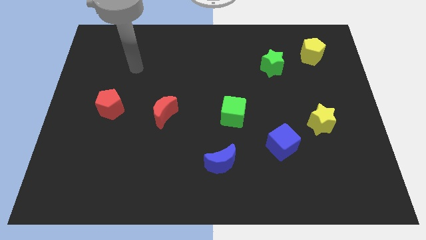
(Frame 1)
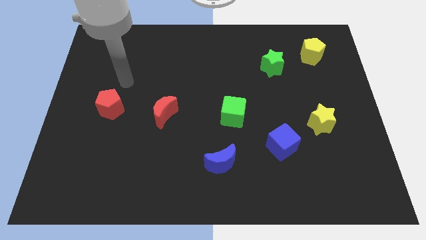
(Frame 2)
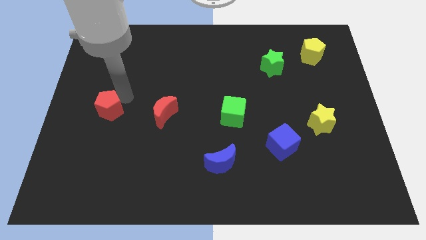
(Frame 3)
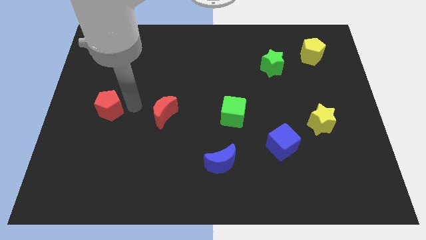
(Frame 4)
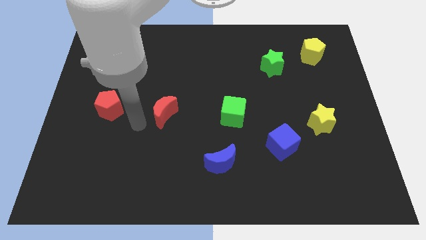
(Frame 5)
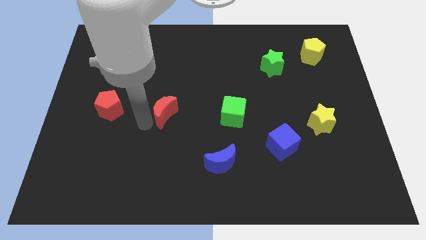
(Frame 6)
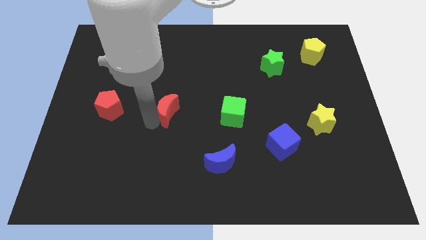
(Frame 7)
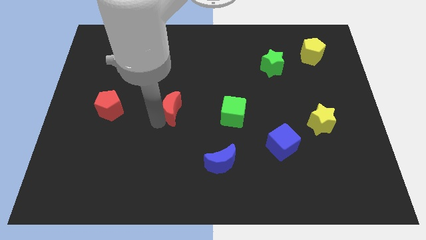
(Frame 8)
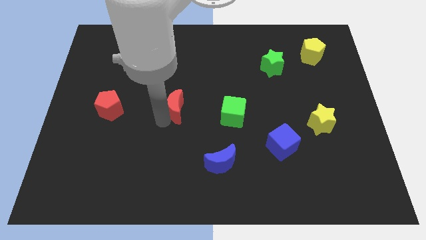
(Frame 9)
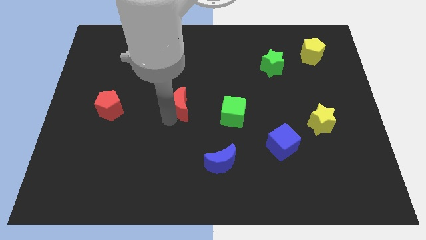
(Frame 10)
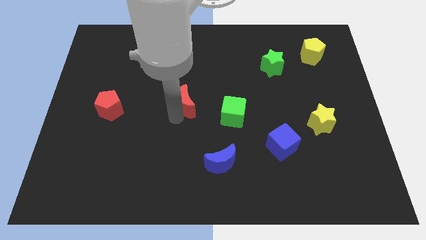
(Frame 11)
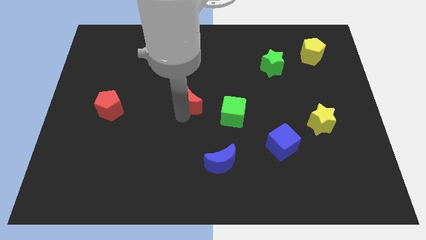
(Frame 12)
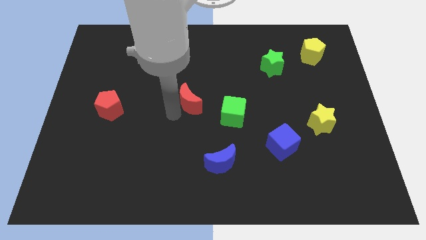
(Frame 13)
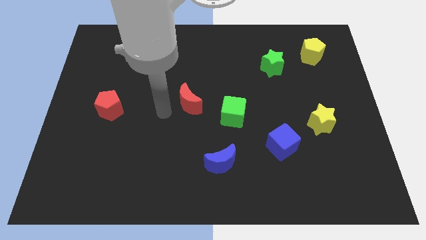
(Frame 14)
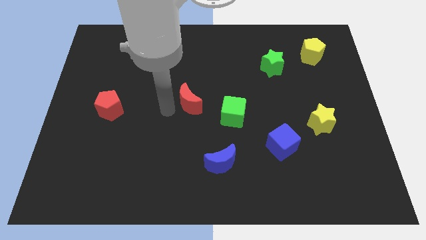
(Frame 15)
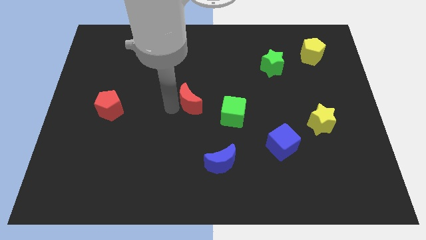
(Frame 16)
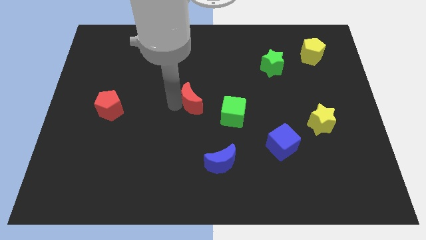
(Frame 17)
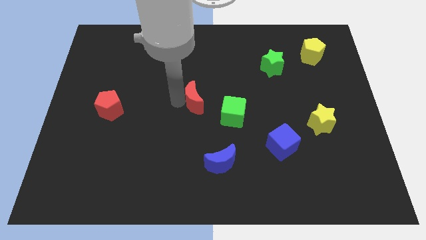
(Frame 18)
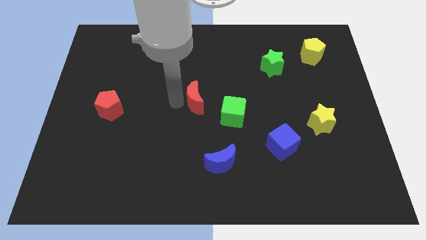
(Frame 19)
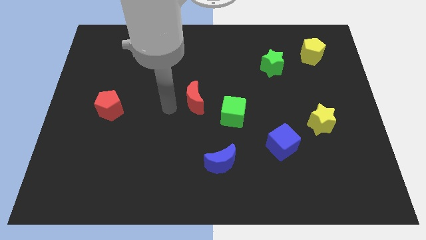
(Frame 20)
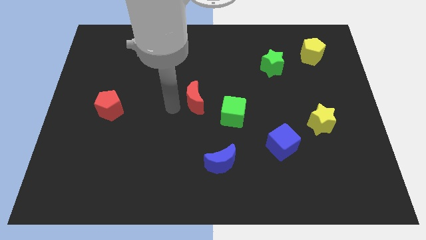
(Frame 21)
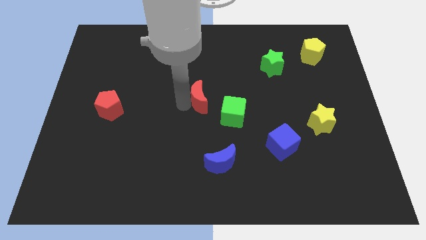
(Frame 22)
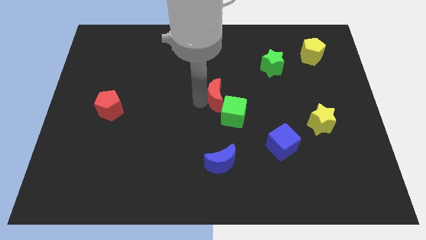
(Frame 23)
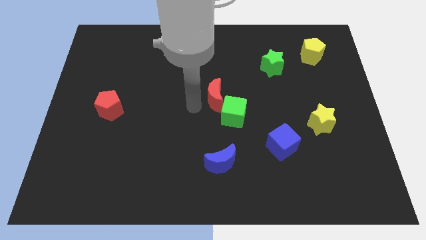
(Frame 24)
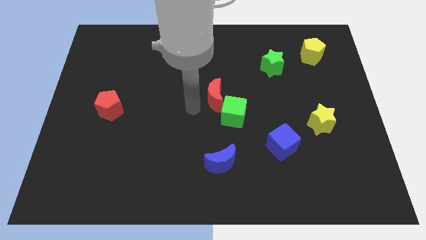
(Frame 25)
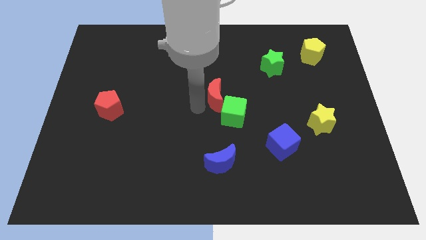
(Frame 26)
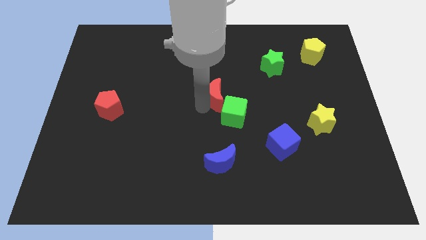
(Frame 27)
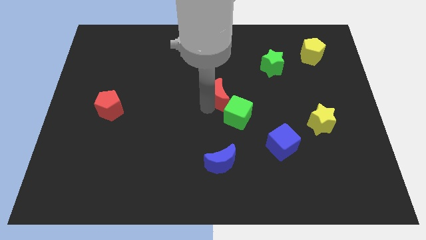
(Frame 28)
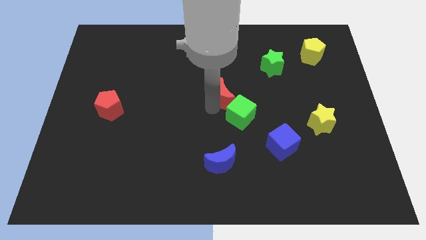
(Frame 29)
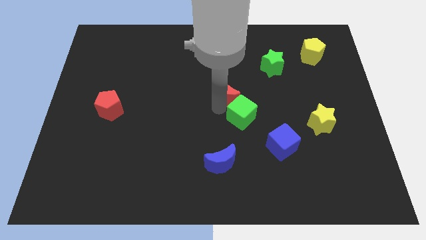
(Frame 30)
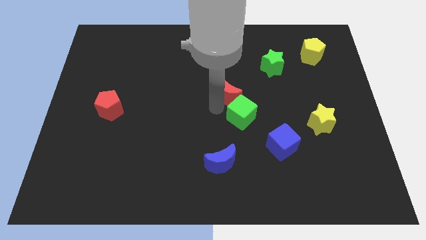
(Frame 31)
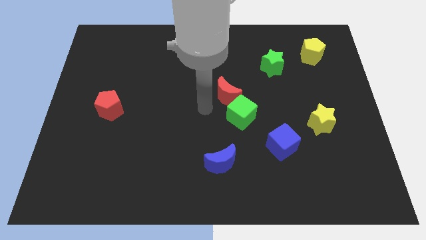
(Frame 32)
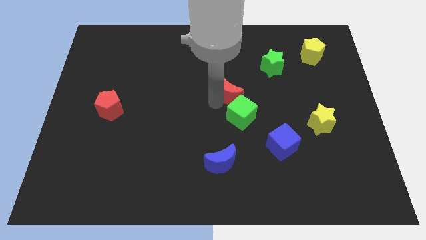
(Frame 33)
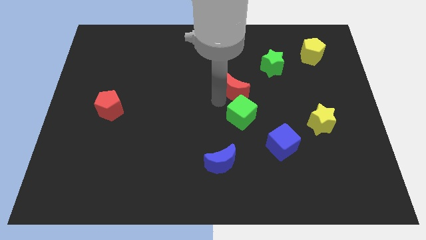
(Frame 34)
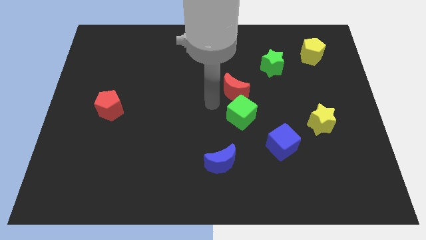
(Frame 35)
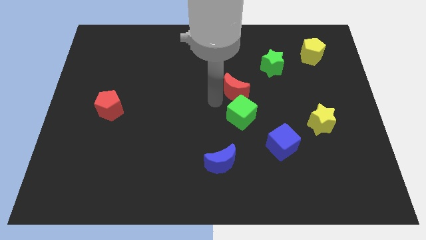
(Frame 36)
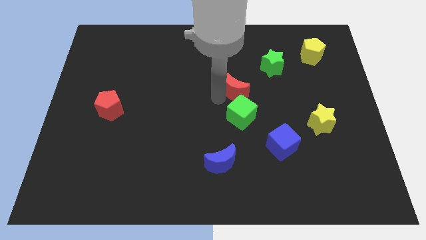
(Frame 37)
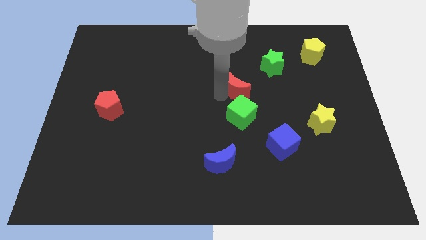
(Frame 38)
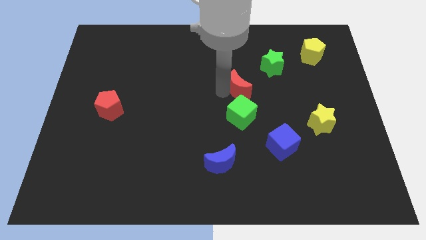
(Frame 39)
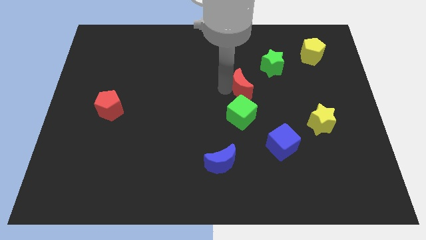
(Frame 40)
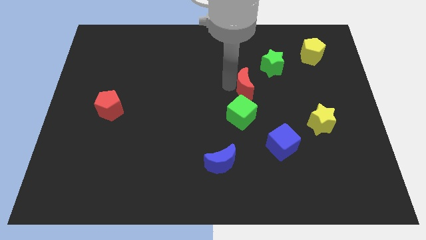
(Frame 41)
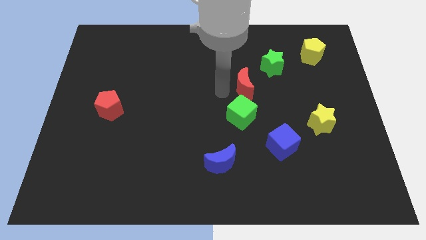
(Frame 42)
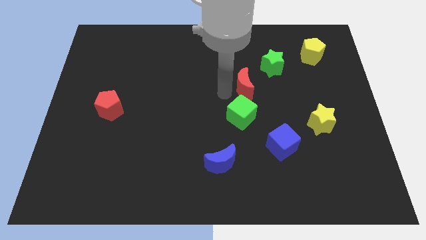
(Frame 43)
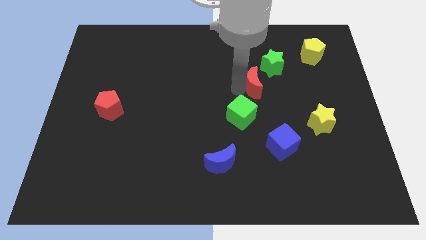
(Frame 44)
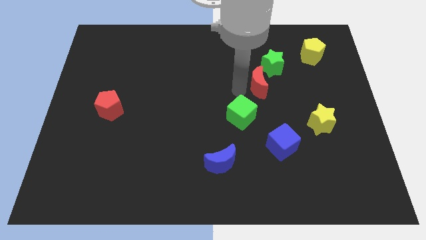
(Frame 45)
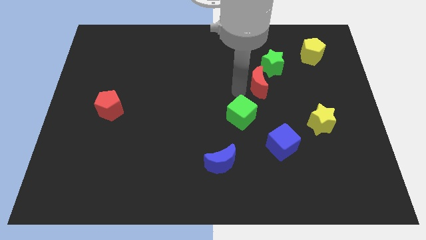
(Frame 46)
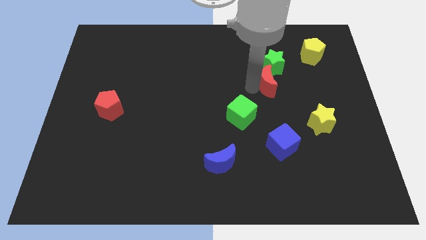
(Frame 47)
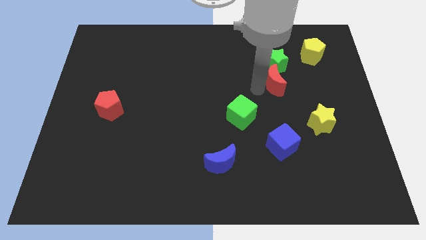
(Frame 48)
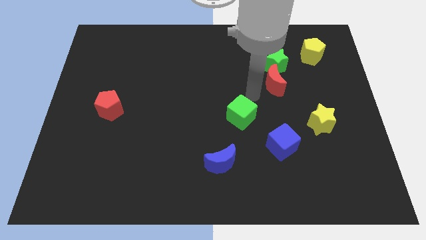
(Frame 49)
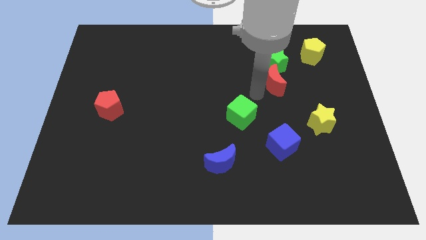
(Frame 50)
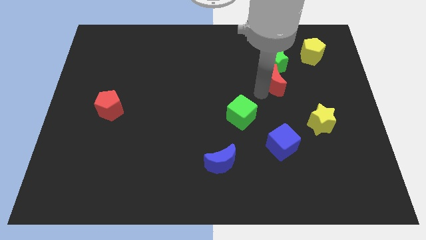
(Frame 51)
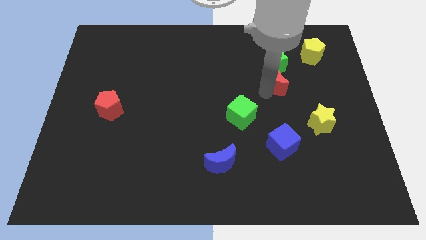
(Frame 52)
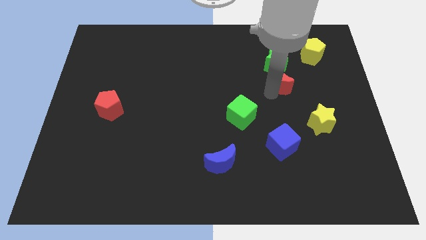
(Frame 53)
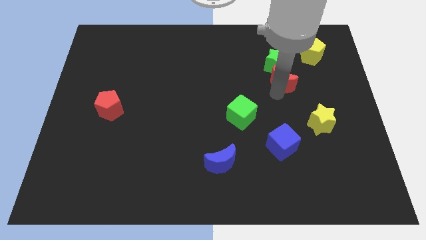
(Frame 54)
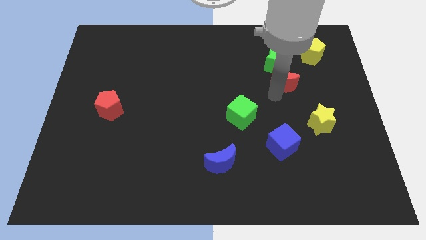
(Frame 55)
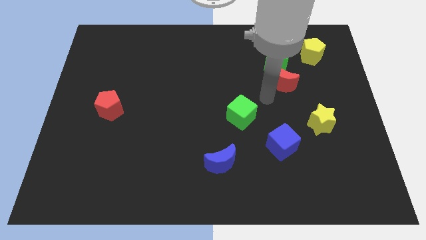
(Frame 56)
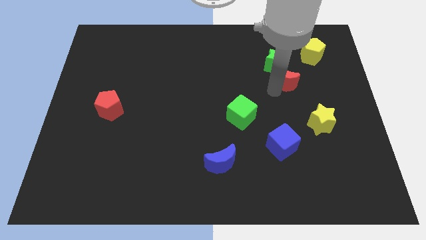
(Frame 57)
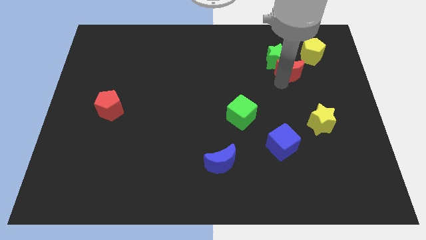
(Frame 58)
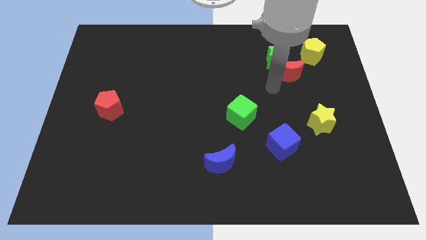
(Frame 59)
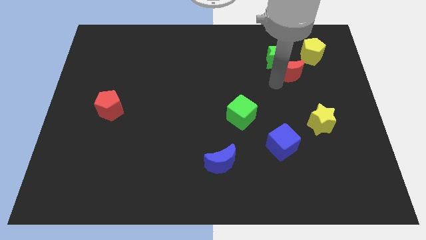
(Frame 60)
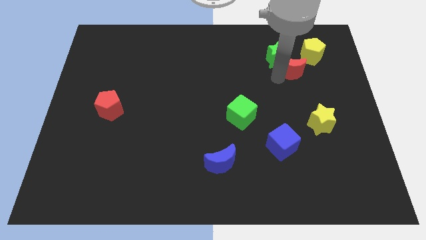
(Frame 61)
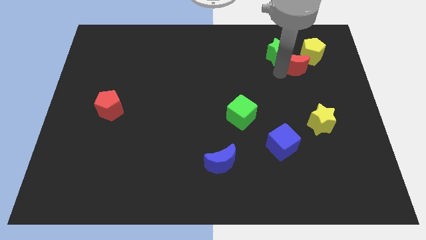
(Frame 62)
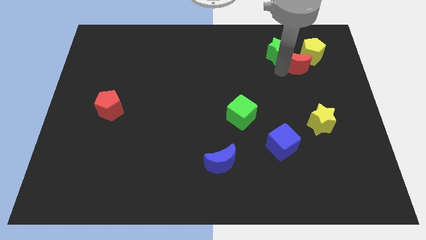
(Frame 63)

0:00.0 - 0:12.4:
push the red moon next to the yellow pentagon

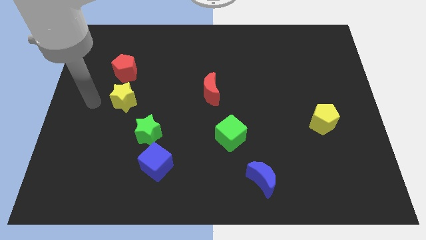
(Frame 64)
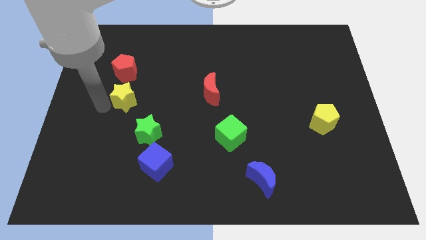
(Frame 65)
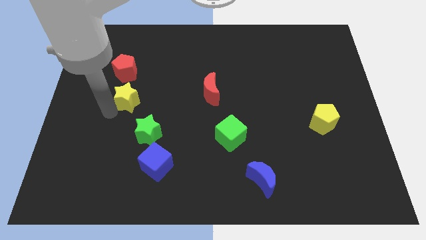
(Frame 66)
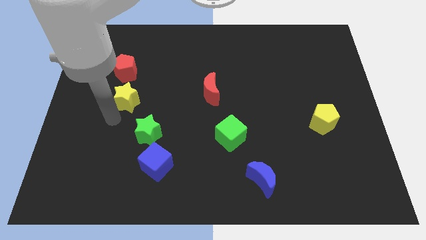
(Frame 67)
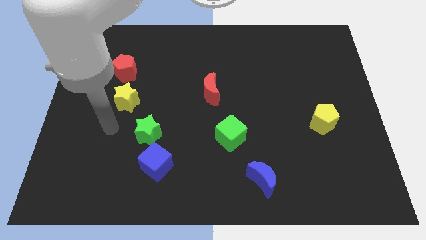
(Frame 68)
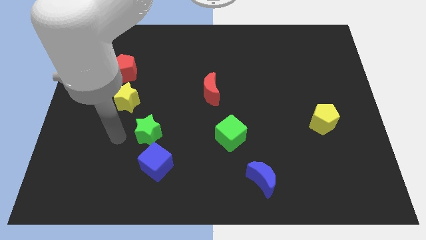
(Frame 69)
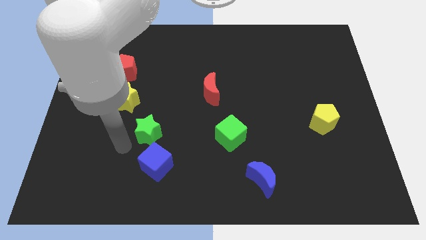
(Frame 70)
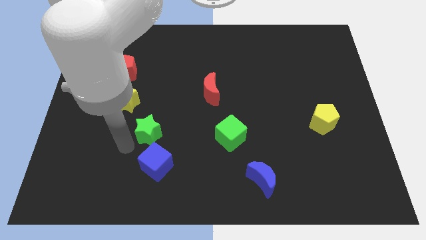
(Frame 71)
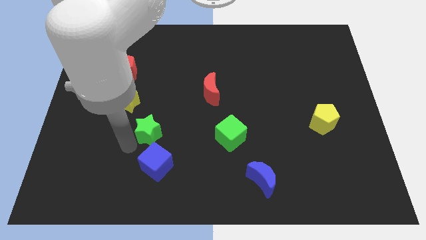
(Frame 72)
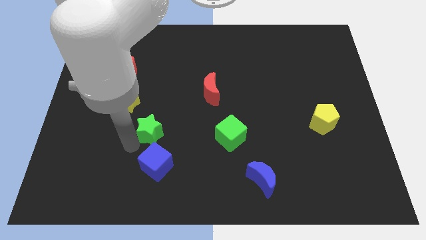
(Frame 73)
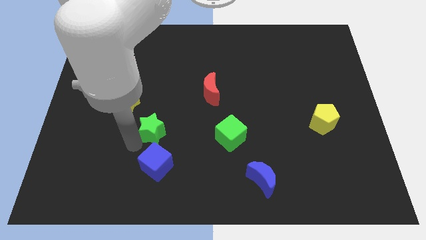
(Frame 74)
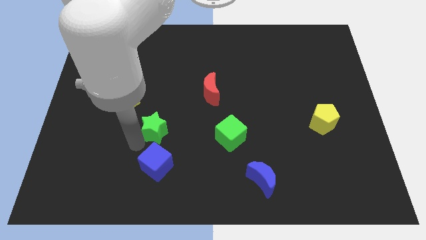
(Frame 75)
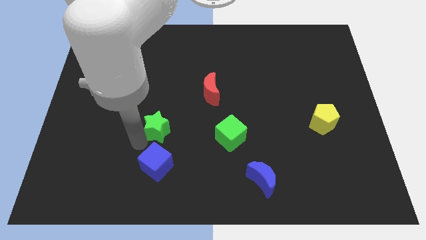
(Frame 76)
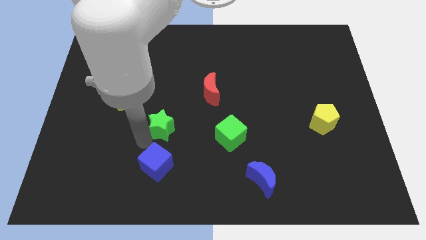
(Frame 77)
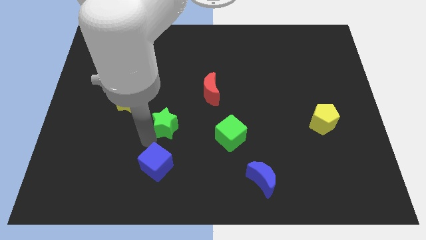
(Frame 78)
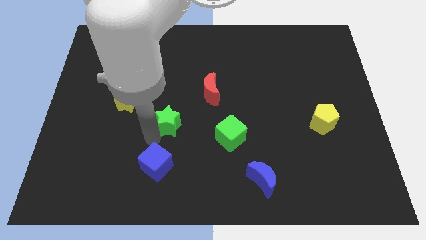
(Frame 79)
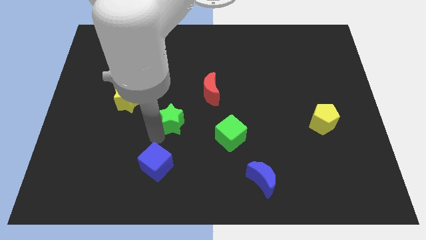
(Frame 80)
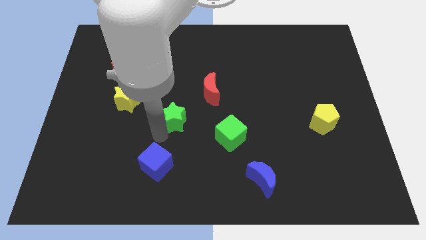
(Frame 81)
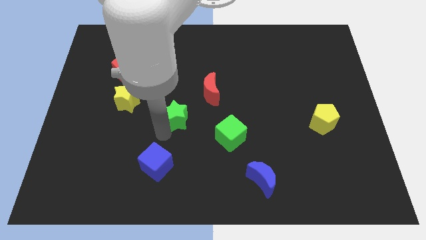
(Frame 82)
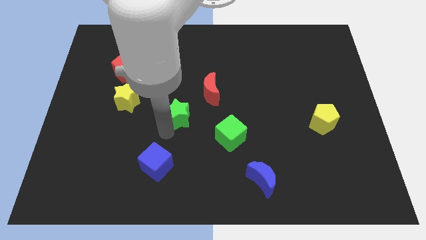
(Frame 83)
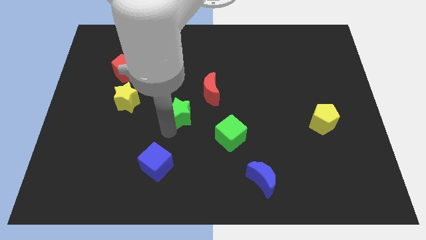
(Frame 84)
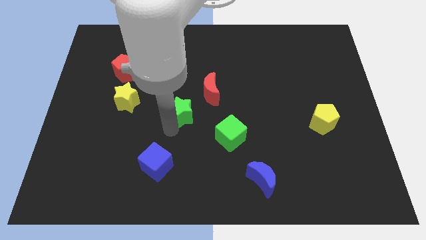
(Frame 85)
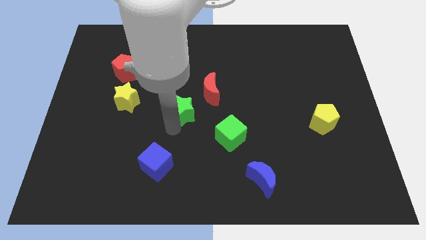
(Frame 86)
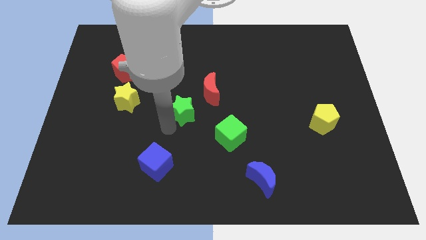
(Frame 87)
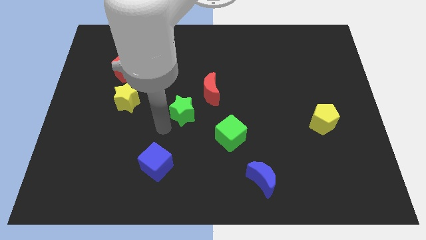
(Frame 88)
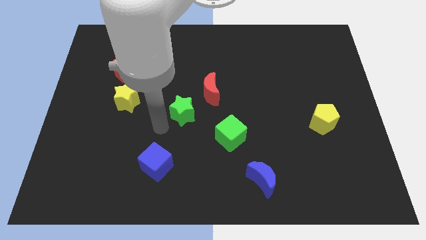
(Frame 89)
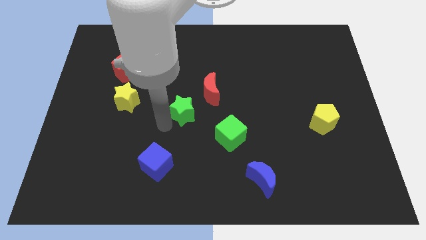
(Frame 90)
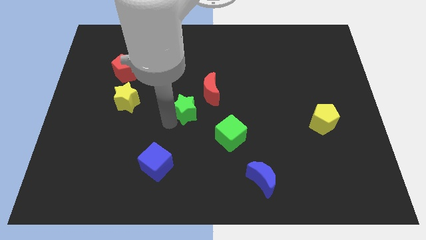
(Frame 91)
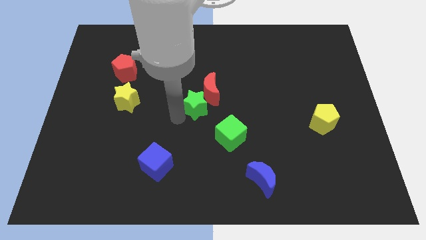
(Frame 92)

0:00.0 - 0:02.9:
move the green star next to the red moon
